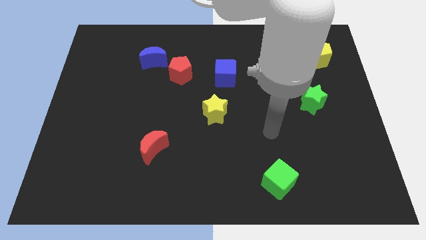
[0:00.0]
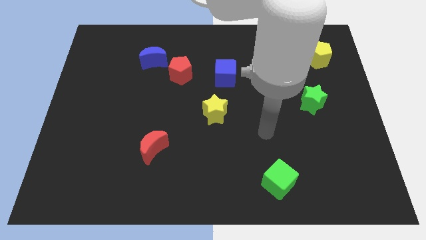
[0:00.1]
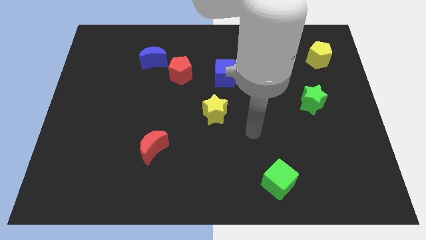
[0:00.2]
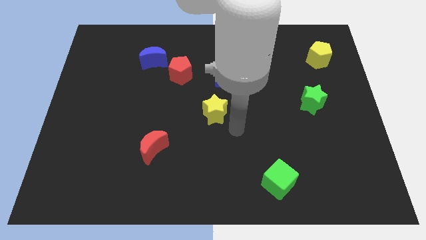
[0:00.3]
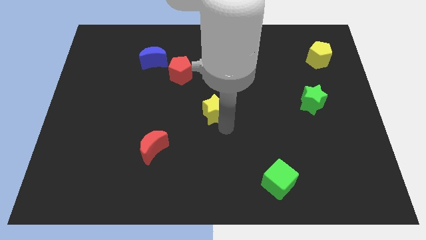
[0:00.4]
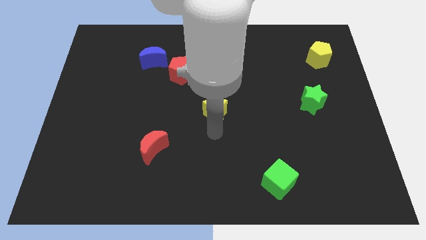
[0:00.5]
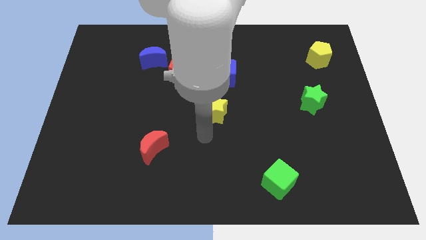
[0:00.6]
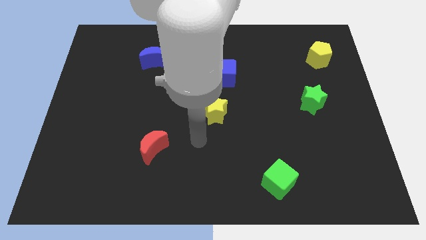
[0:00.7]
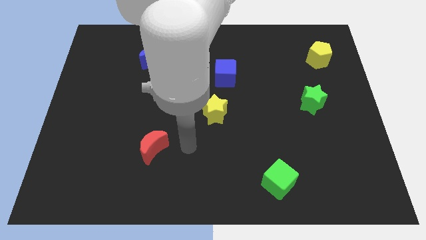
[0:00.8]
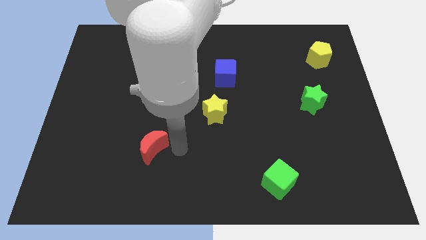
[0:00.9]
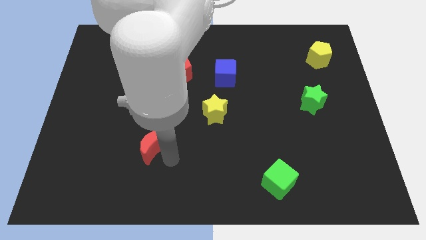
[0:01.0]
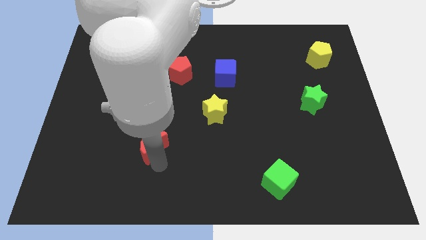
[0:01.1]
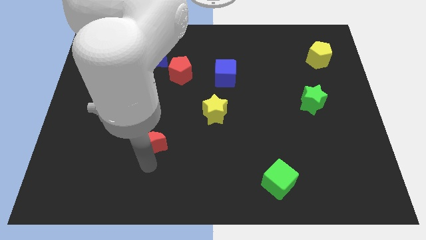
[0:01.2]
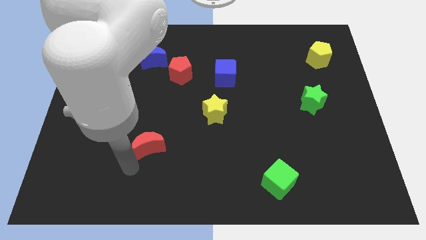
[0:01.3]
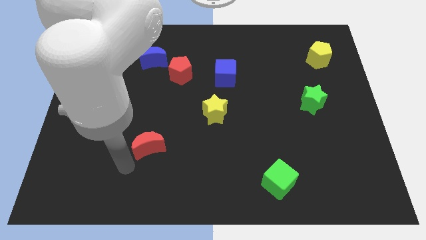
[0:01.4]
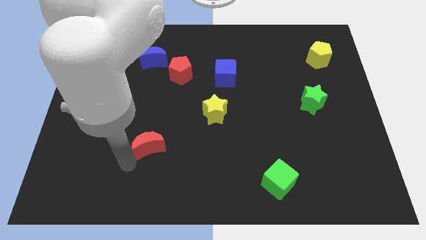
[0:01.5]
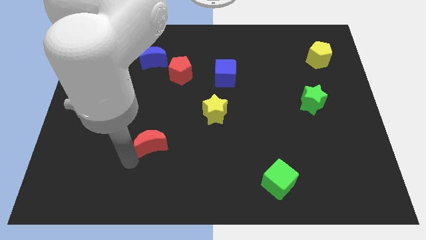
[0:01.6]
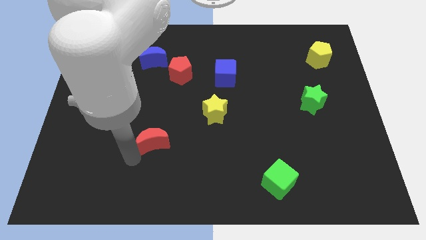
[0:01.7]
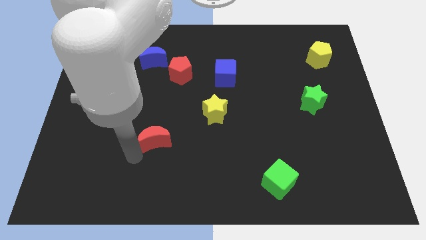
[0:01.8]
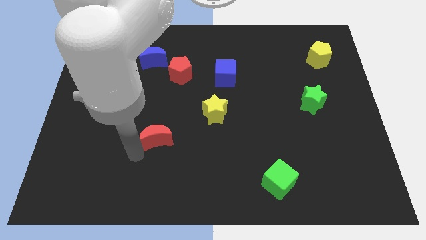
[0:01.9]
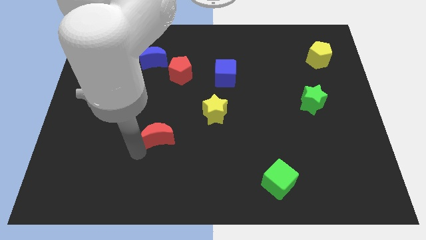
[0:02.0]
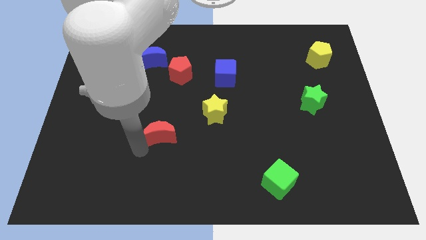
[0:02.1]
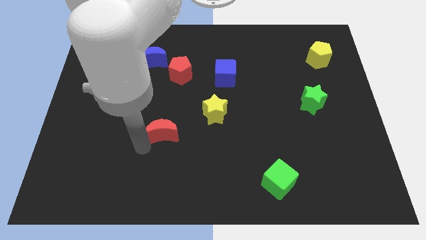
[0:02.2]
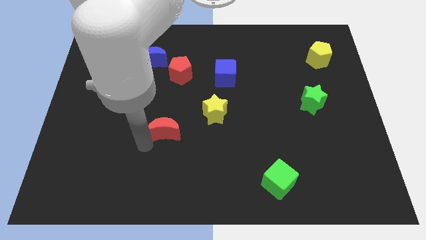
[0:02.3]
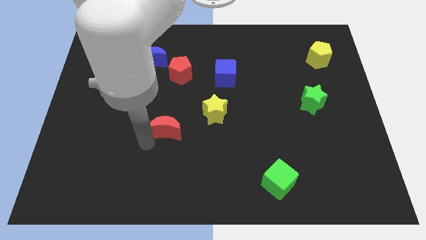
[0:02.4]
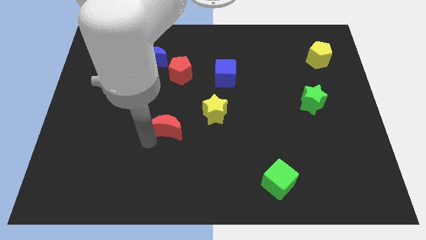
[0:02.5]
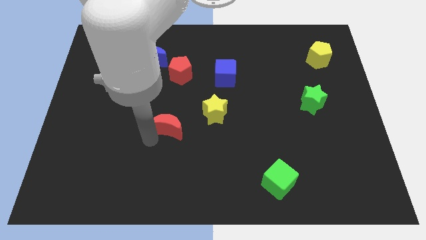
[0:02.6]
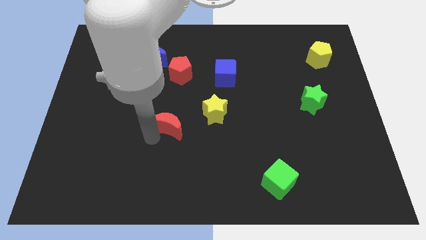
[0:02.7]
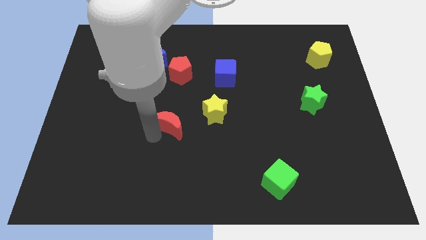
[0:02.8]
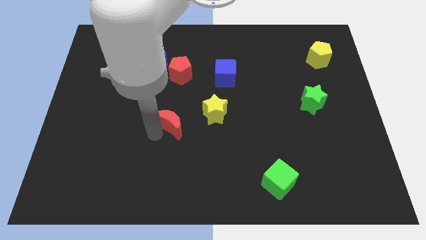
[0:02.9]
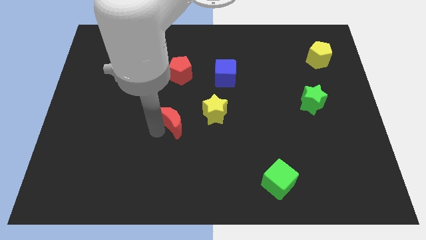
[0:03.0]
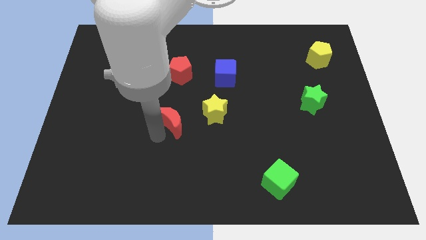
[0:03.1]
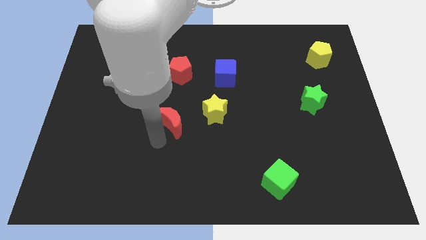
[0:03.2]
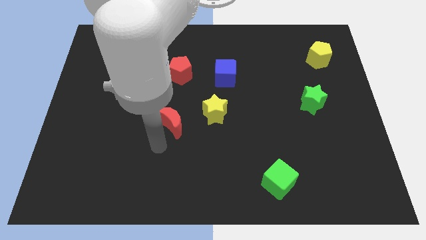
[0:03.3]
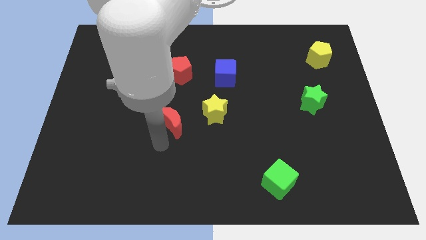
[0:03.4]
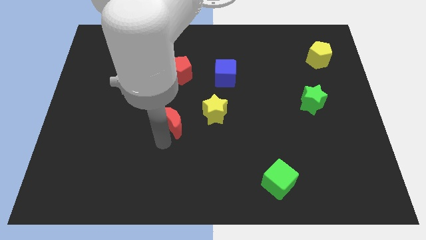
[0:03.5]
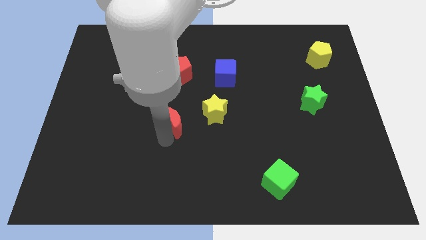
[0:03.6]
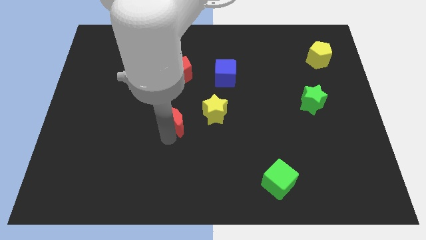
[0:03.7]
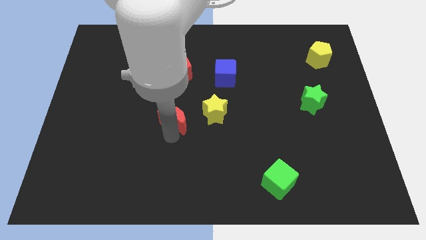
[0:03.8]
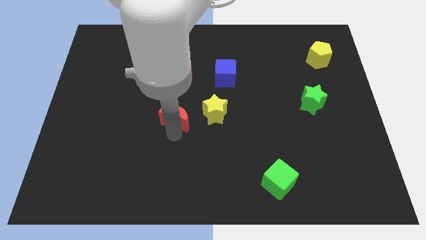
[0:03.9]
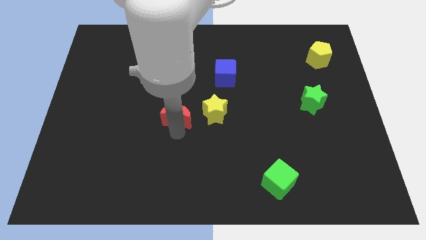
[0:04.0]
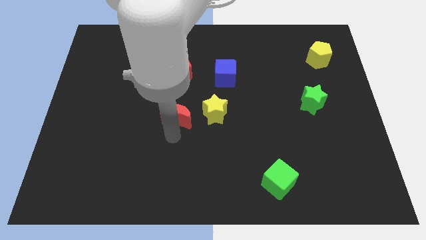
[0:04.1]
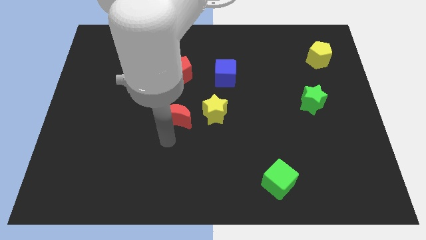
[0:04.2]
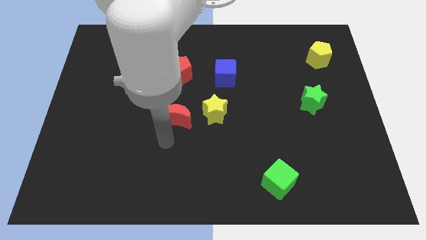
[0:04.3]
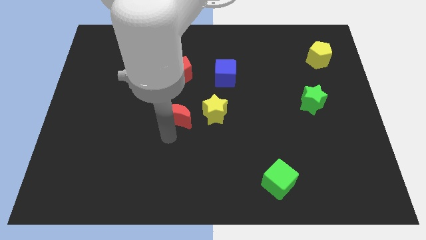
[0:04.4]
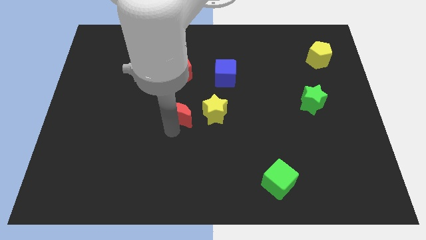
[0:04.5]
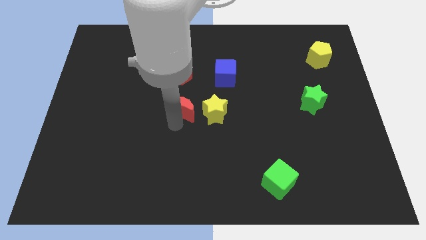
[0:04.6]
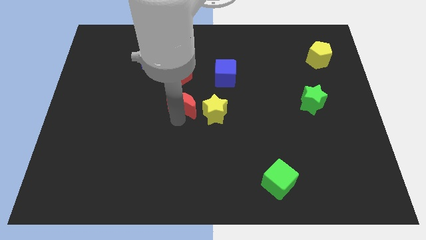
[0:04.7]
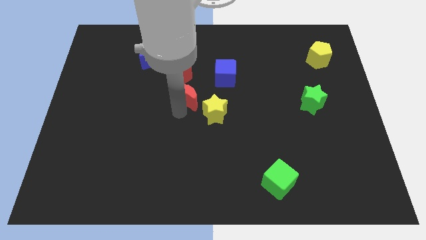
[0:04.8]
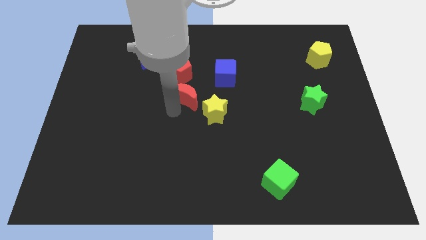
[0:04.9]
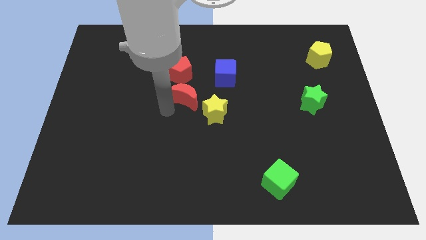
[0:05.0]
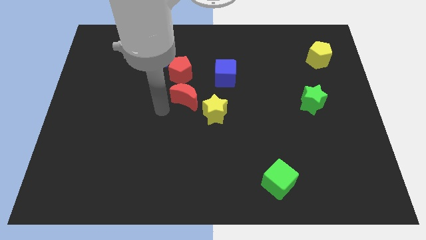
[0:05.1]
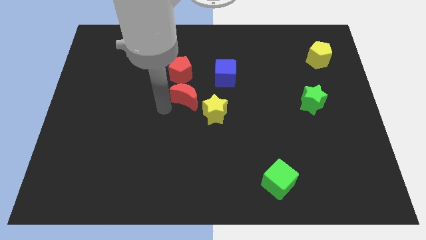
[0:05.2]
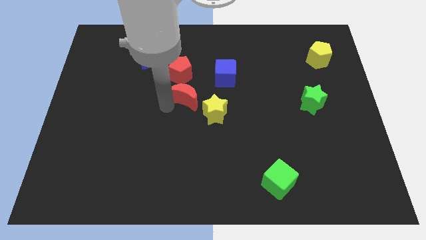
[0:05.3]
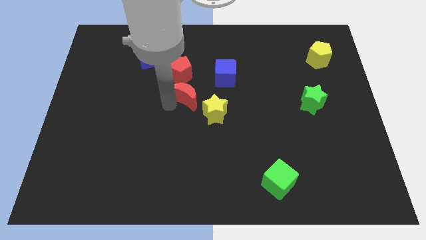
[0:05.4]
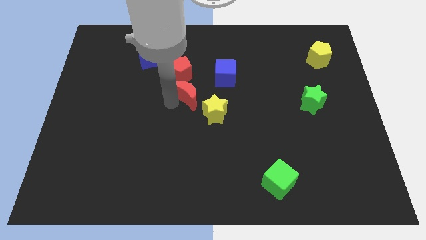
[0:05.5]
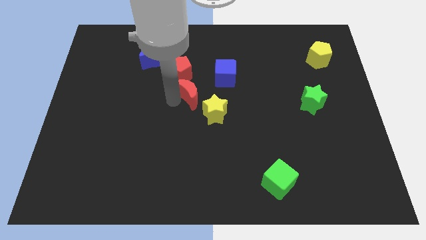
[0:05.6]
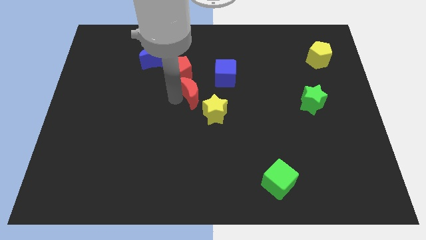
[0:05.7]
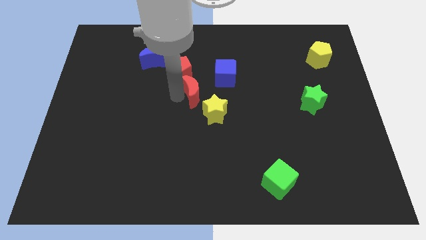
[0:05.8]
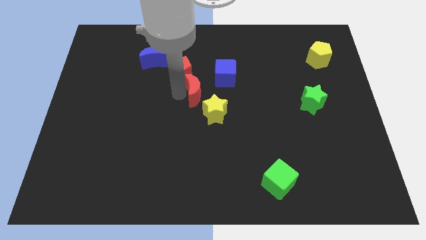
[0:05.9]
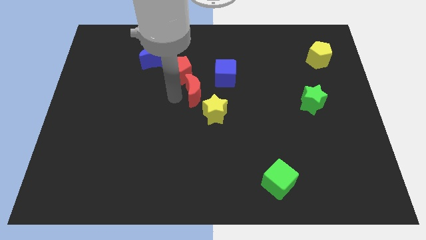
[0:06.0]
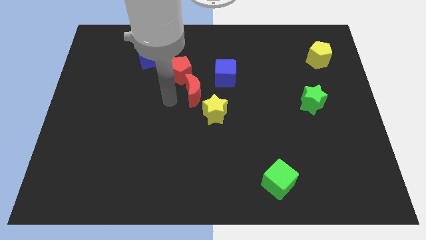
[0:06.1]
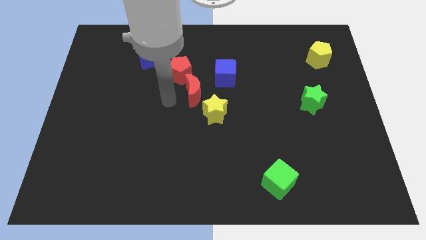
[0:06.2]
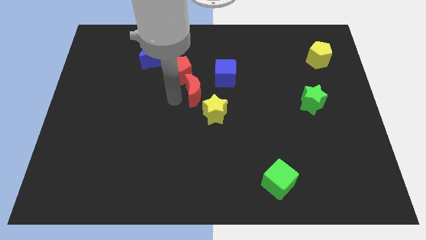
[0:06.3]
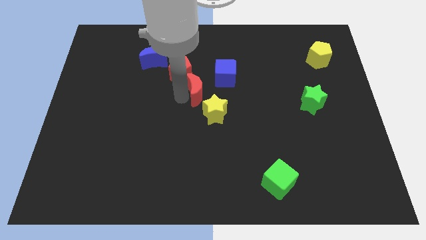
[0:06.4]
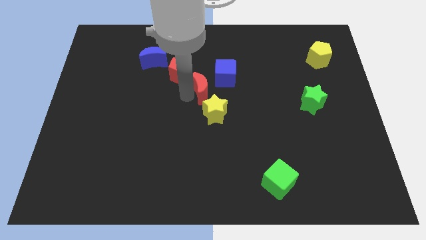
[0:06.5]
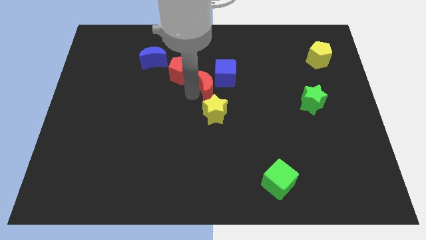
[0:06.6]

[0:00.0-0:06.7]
slide the red moon towards the blue cube
